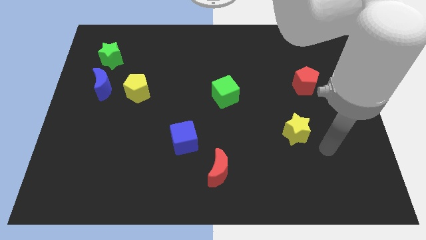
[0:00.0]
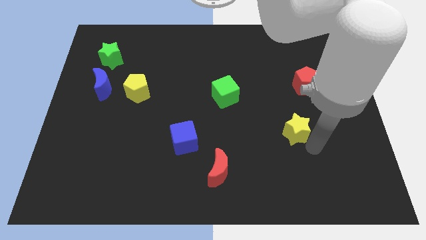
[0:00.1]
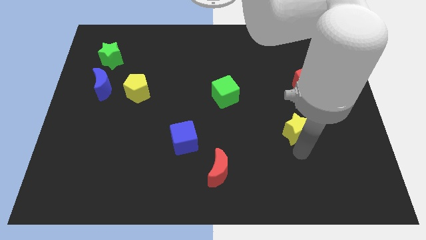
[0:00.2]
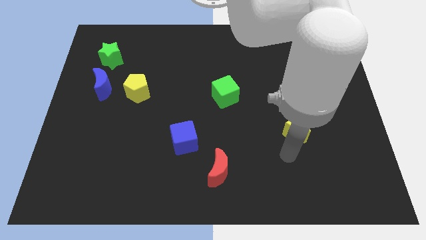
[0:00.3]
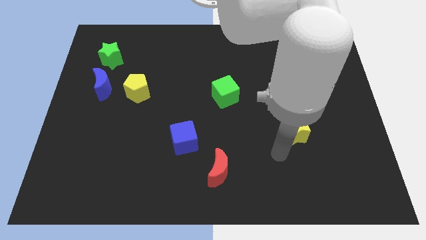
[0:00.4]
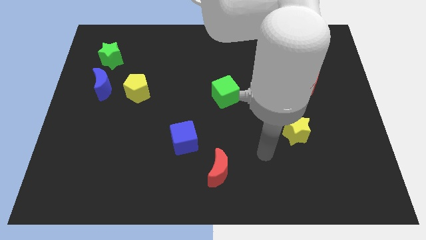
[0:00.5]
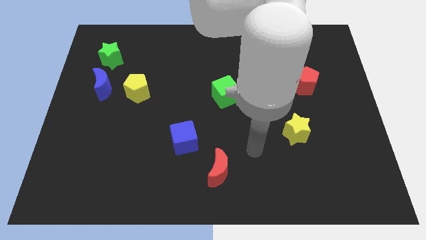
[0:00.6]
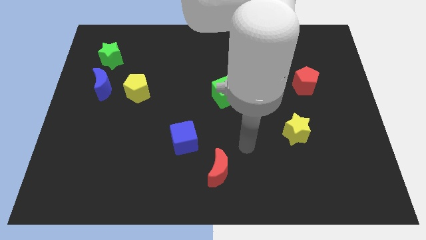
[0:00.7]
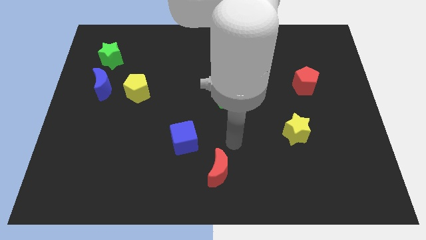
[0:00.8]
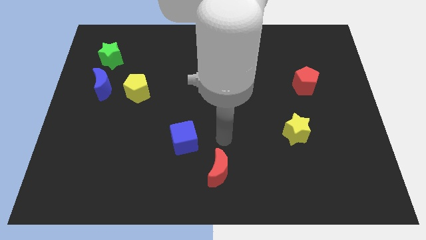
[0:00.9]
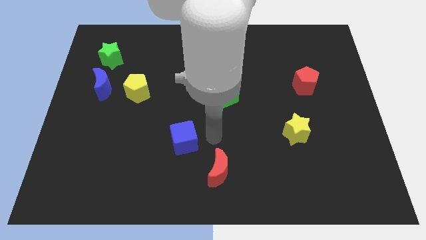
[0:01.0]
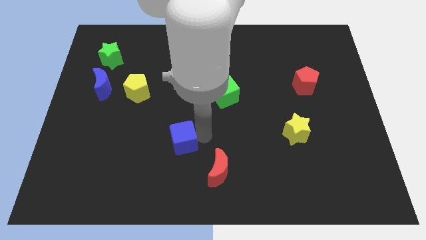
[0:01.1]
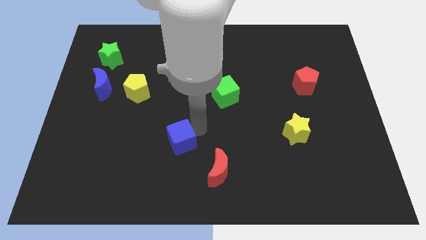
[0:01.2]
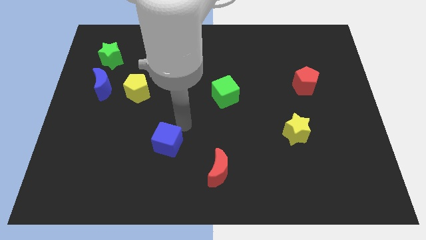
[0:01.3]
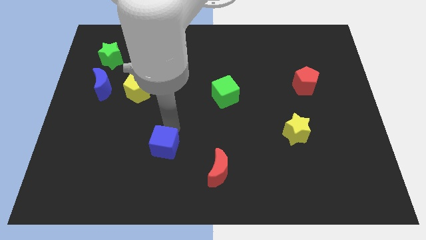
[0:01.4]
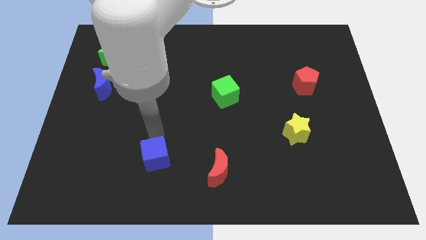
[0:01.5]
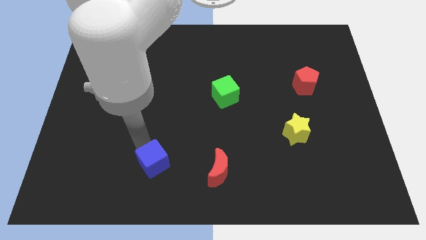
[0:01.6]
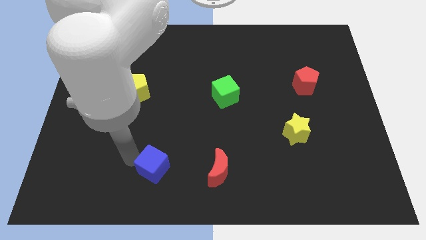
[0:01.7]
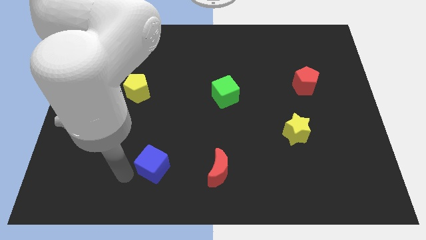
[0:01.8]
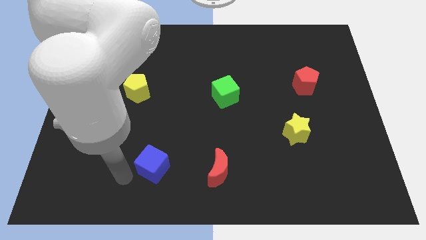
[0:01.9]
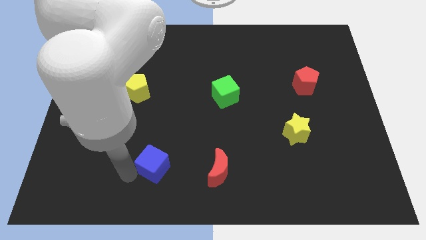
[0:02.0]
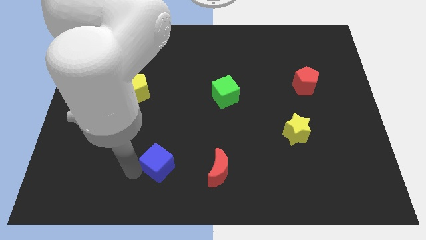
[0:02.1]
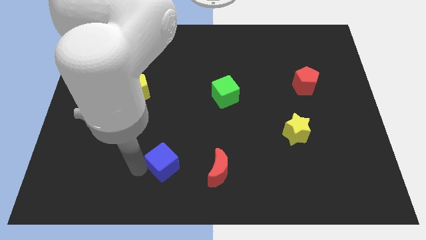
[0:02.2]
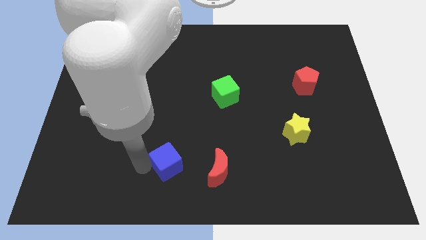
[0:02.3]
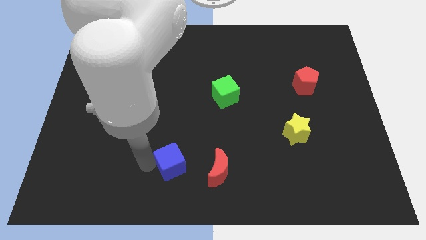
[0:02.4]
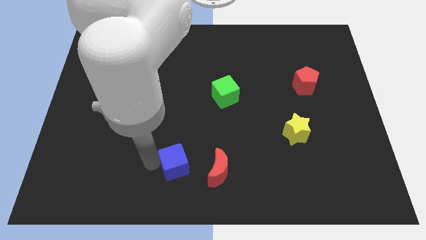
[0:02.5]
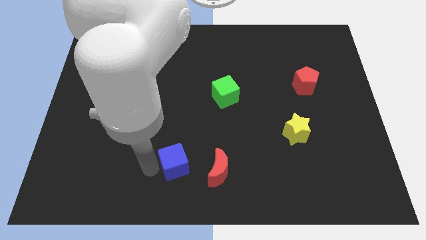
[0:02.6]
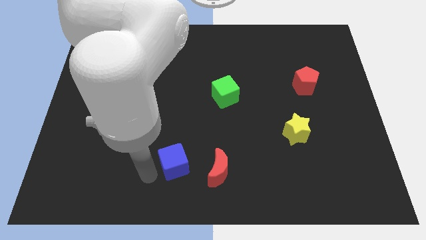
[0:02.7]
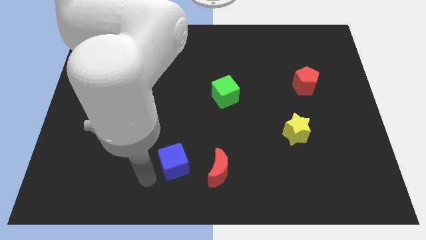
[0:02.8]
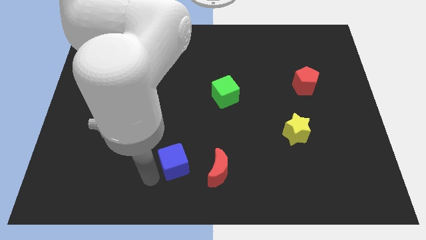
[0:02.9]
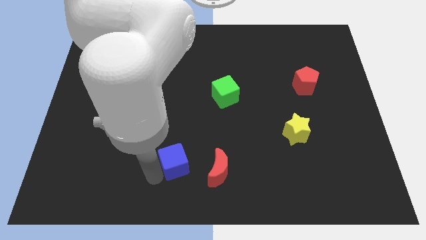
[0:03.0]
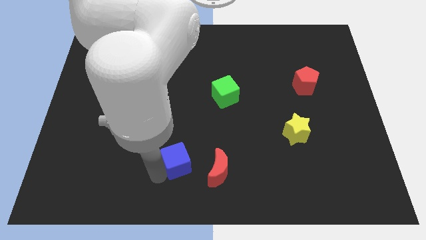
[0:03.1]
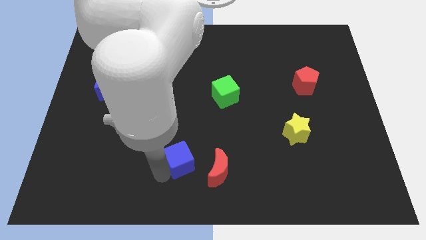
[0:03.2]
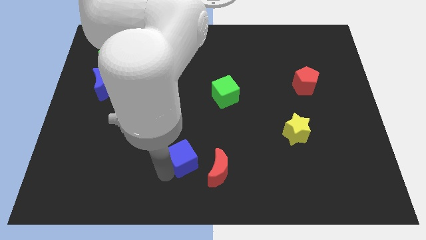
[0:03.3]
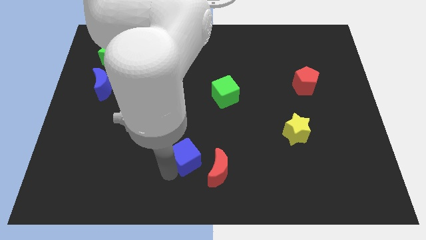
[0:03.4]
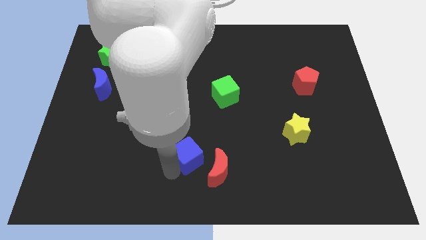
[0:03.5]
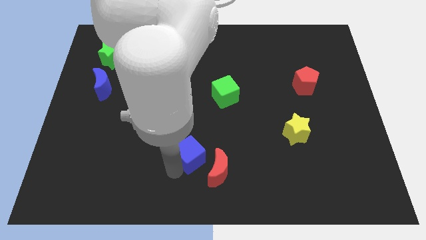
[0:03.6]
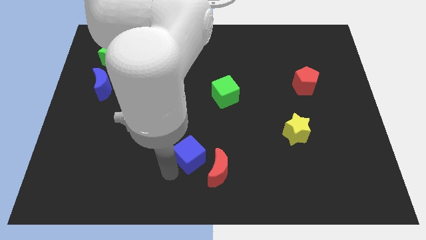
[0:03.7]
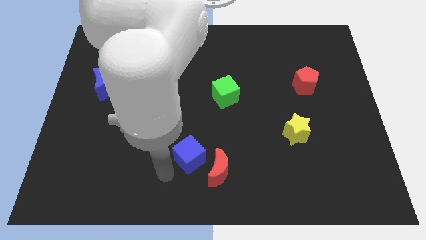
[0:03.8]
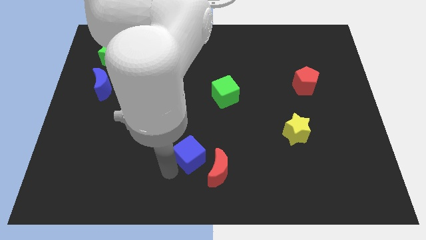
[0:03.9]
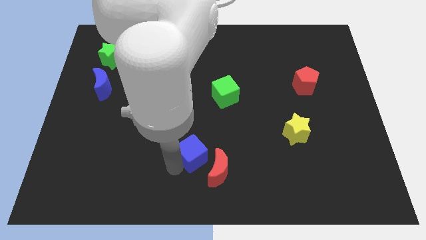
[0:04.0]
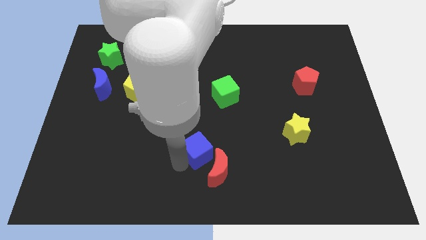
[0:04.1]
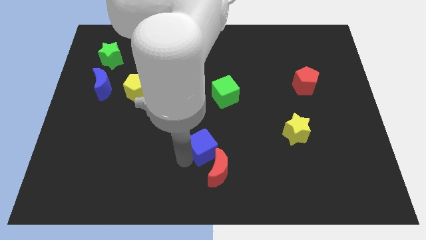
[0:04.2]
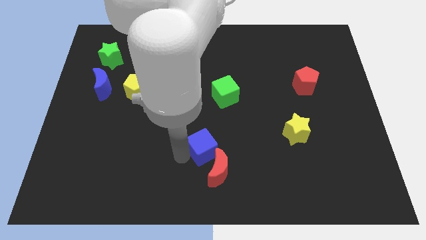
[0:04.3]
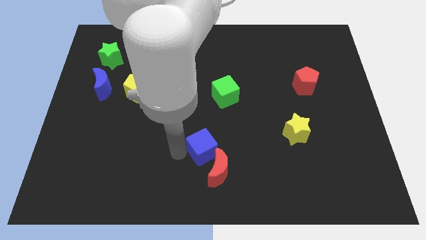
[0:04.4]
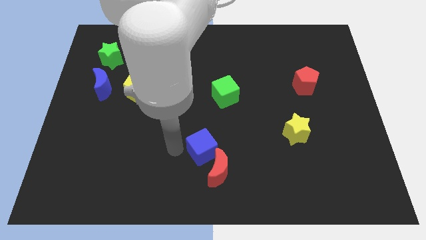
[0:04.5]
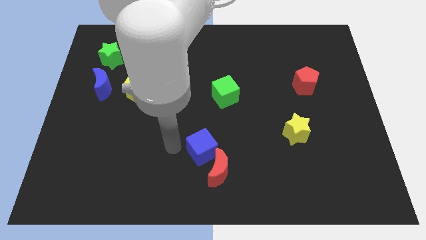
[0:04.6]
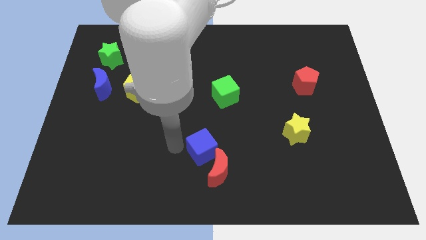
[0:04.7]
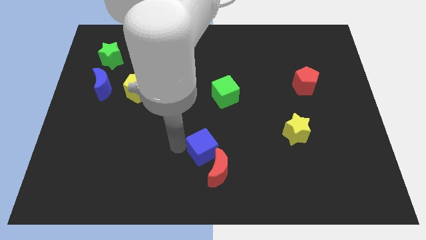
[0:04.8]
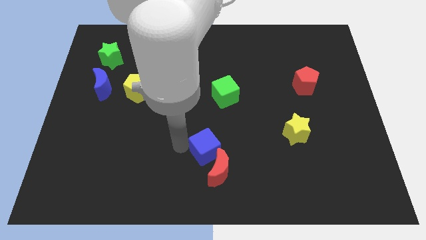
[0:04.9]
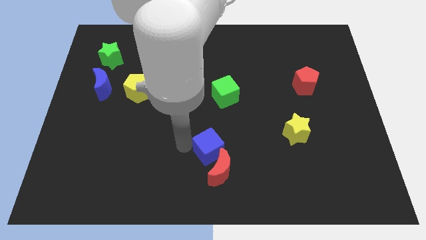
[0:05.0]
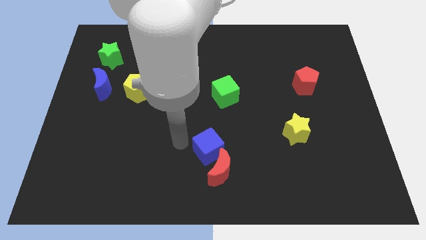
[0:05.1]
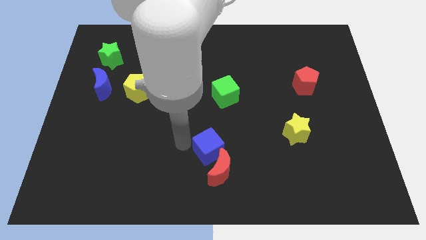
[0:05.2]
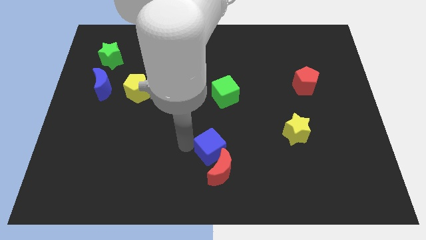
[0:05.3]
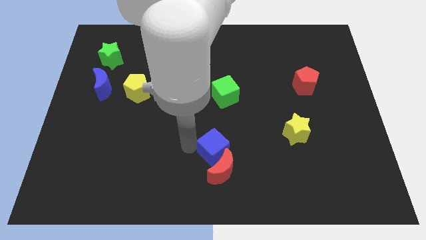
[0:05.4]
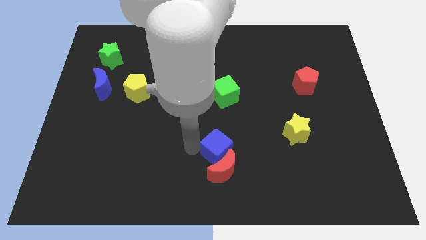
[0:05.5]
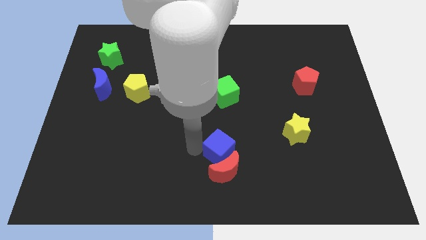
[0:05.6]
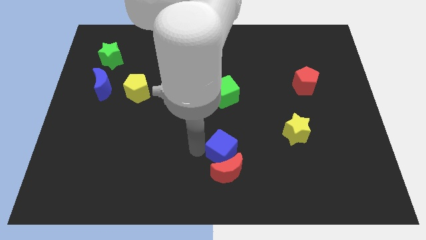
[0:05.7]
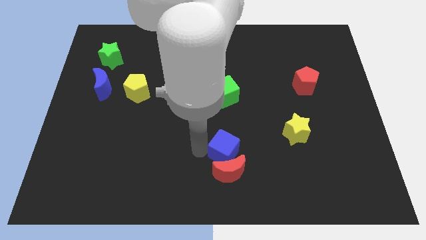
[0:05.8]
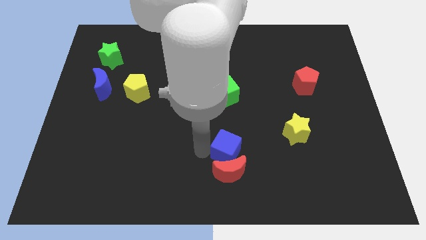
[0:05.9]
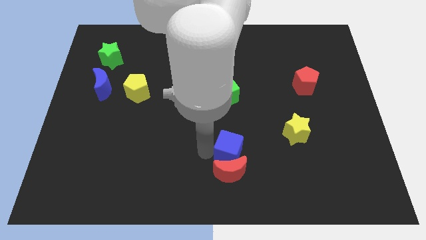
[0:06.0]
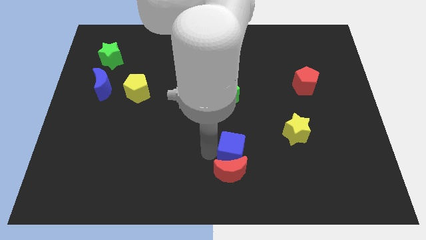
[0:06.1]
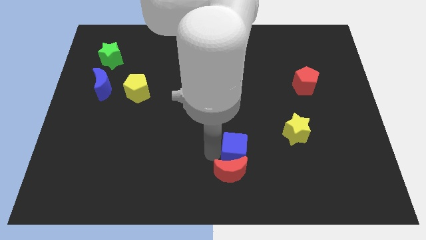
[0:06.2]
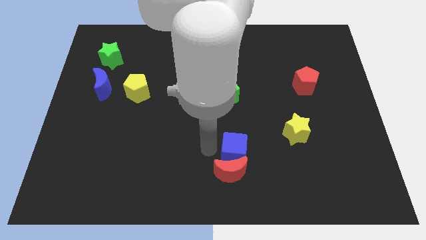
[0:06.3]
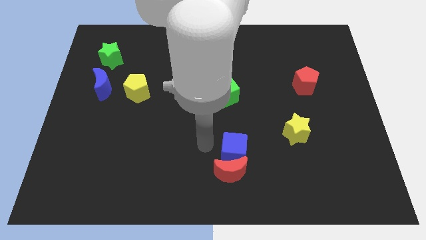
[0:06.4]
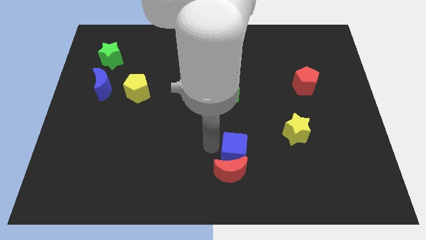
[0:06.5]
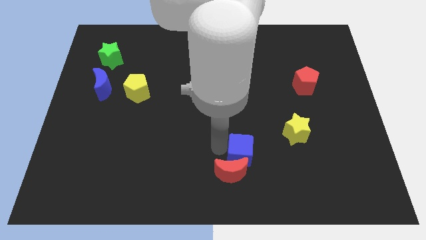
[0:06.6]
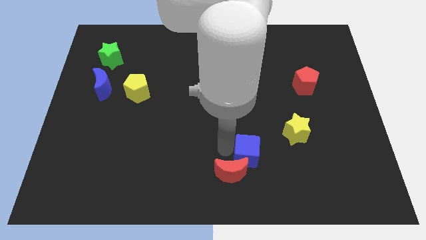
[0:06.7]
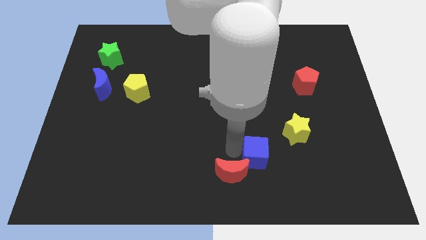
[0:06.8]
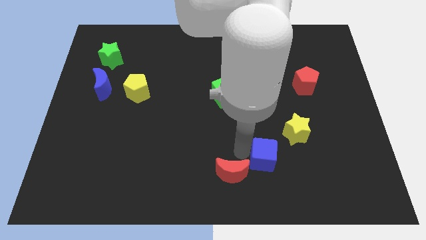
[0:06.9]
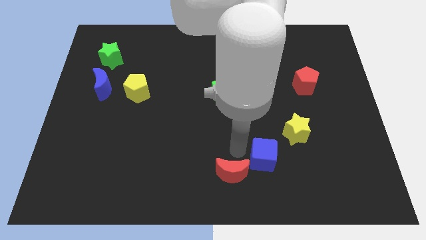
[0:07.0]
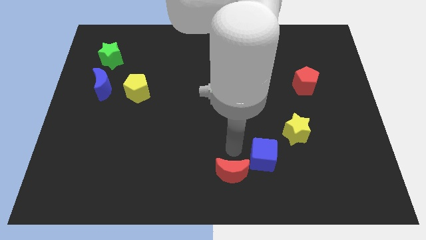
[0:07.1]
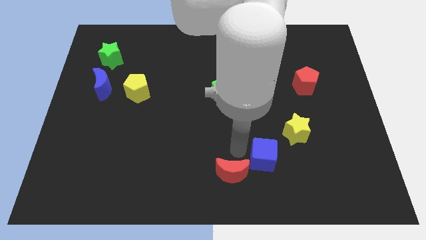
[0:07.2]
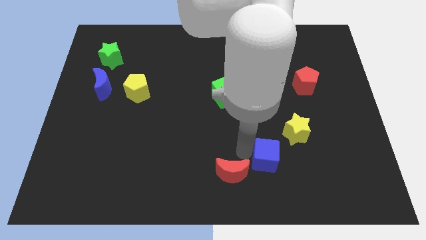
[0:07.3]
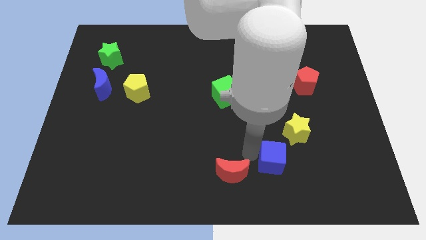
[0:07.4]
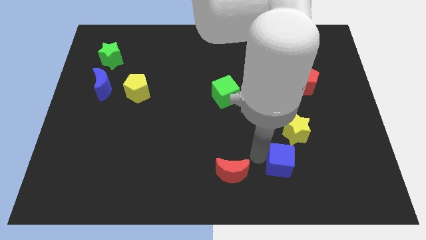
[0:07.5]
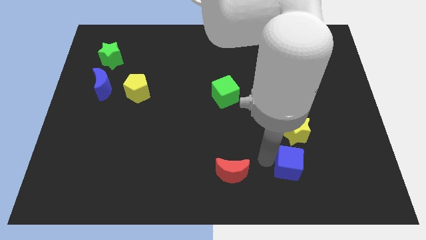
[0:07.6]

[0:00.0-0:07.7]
move the blue cube to the right

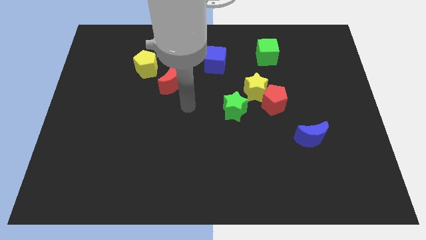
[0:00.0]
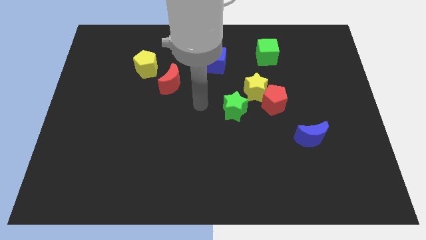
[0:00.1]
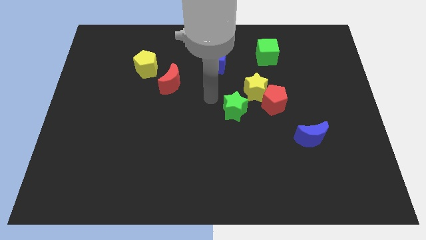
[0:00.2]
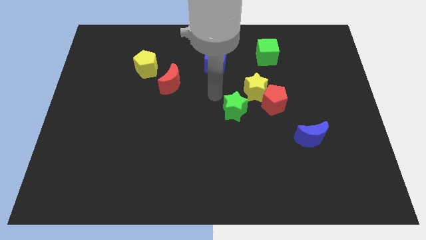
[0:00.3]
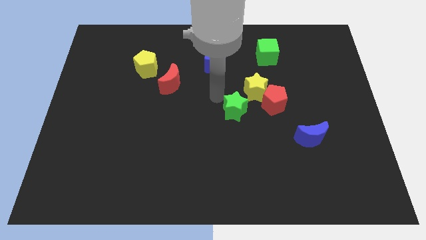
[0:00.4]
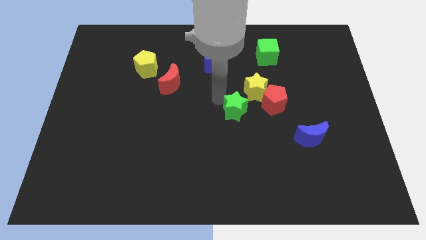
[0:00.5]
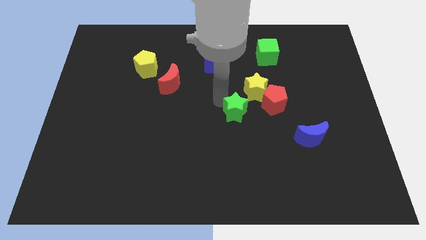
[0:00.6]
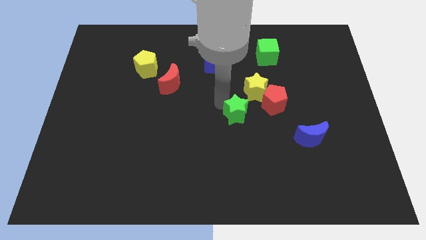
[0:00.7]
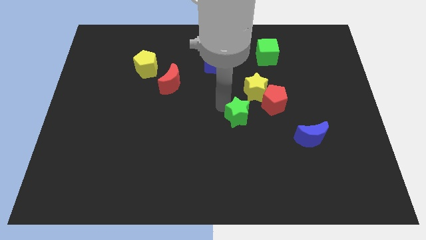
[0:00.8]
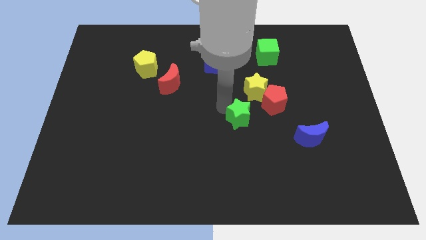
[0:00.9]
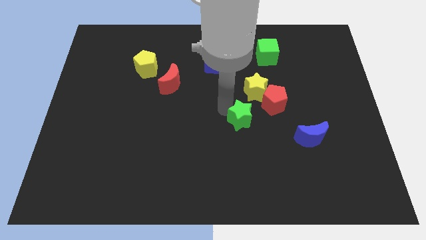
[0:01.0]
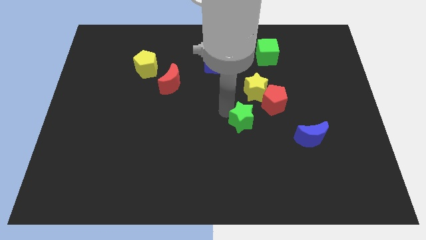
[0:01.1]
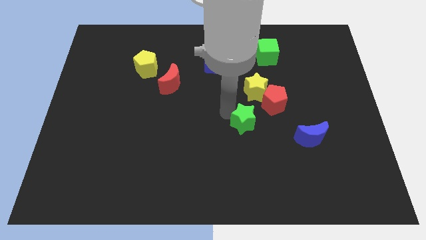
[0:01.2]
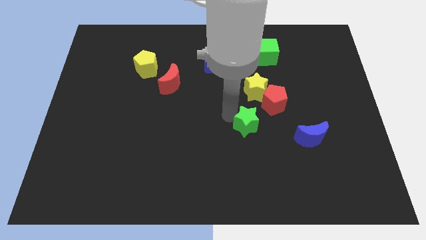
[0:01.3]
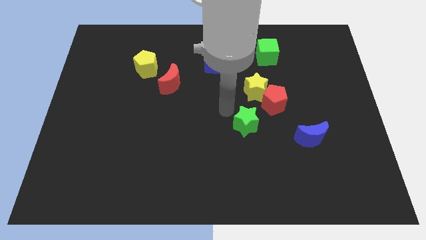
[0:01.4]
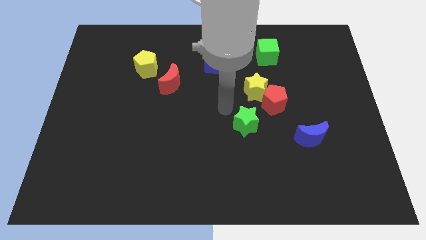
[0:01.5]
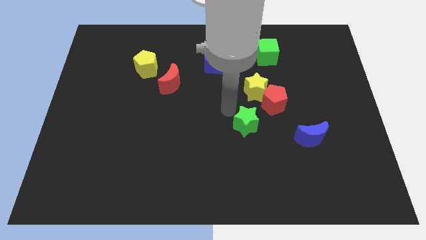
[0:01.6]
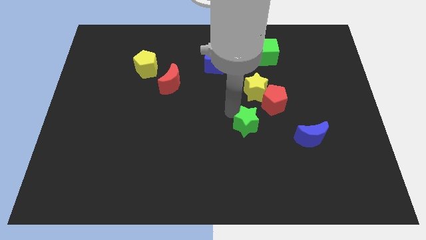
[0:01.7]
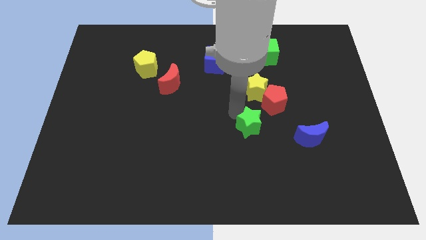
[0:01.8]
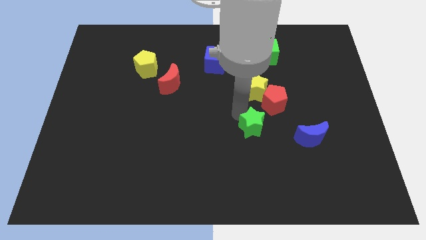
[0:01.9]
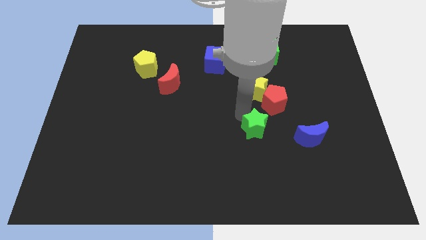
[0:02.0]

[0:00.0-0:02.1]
slightly move the green star down and then to the right
